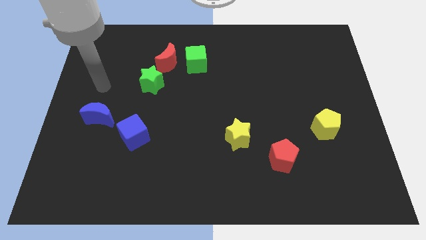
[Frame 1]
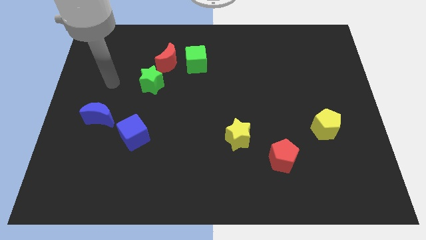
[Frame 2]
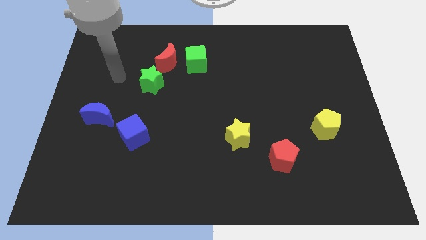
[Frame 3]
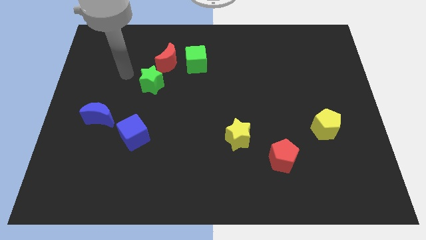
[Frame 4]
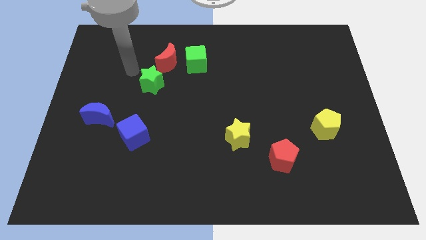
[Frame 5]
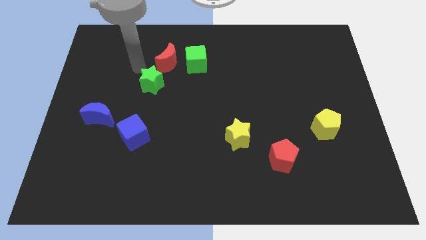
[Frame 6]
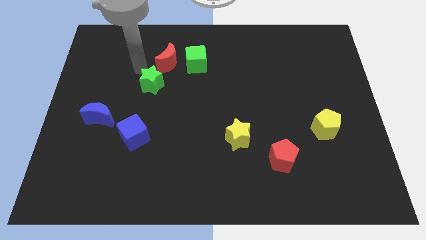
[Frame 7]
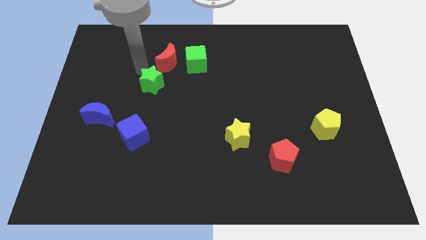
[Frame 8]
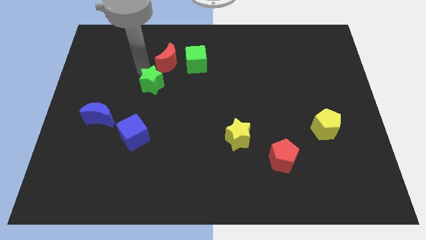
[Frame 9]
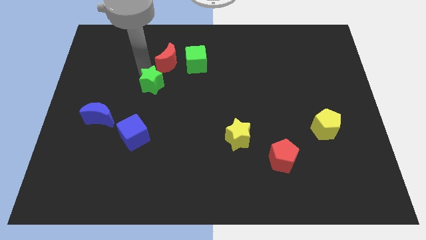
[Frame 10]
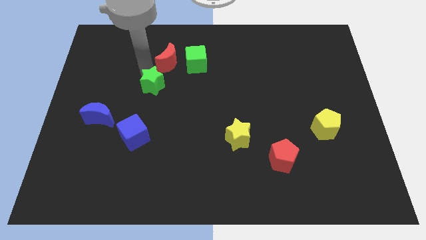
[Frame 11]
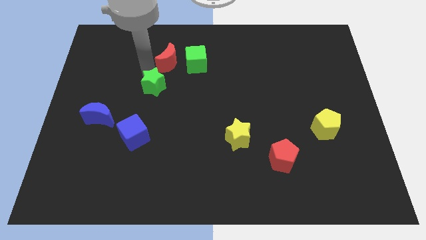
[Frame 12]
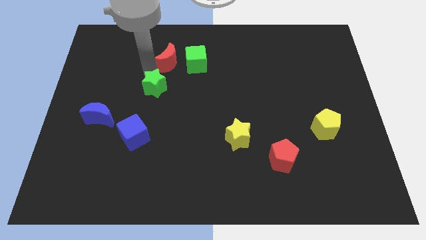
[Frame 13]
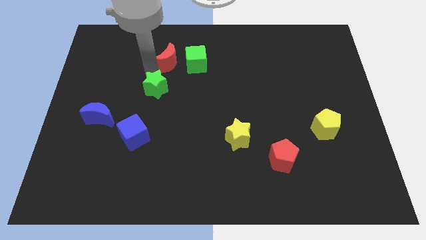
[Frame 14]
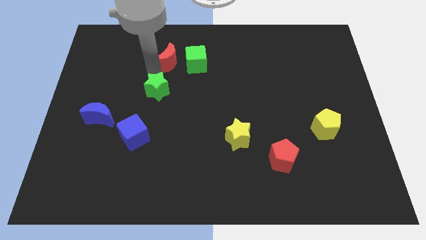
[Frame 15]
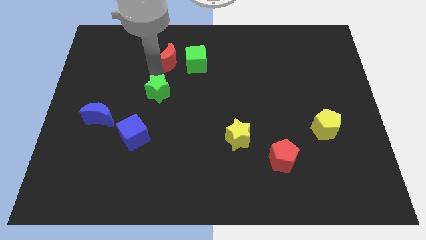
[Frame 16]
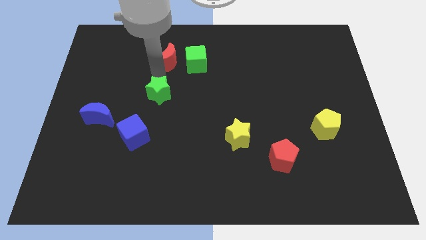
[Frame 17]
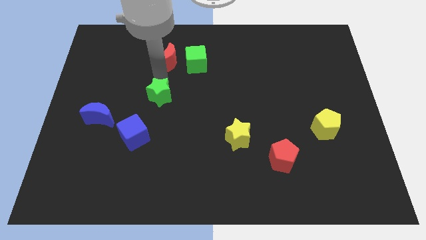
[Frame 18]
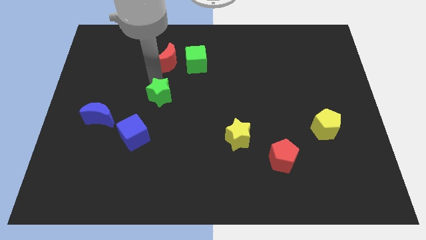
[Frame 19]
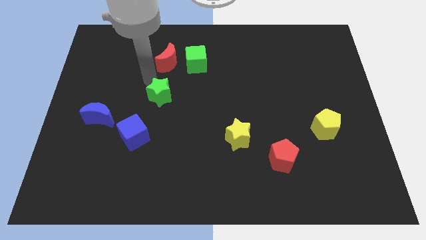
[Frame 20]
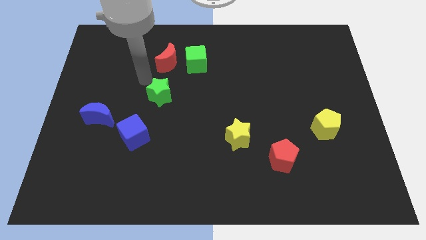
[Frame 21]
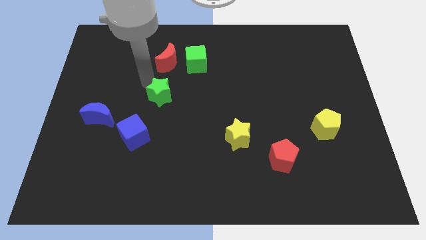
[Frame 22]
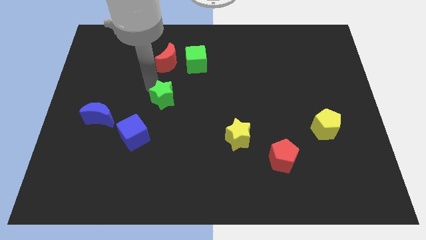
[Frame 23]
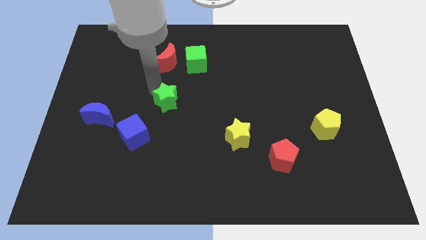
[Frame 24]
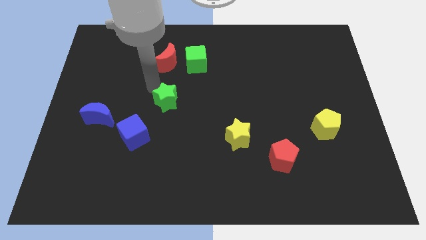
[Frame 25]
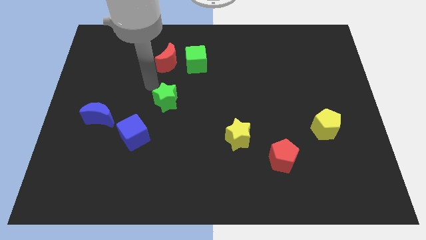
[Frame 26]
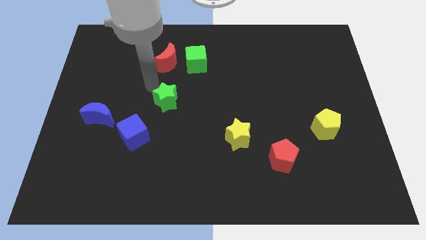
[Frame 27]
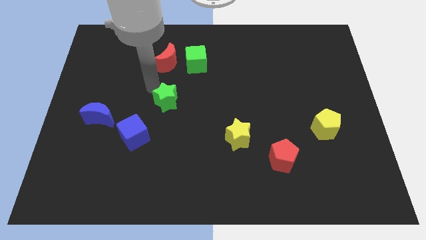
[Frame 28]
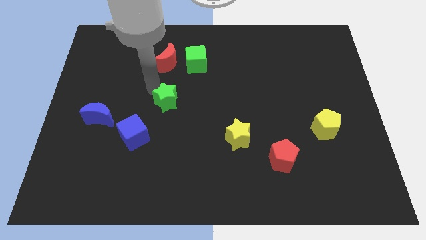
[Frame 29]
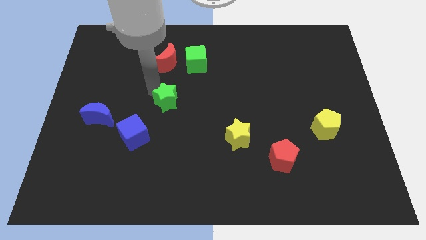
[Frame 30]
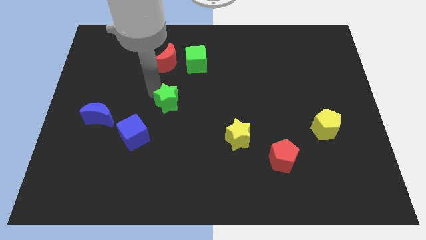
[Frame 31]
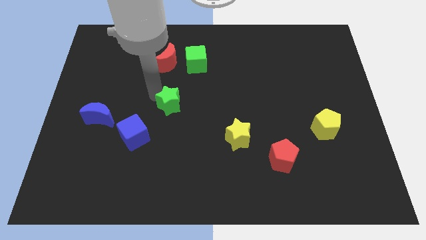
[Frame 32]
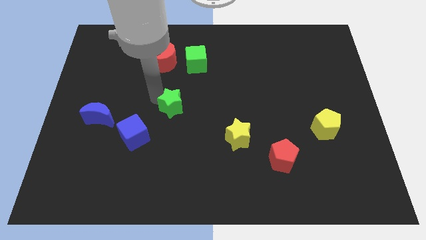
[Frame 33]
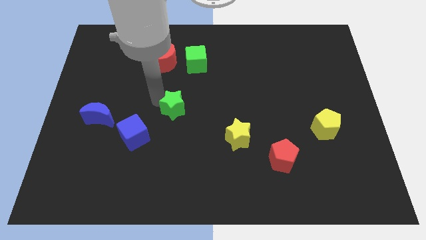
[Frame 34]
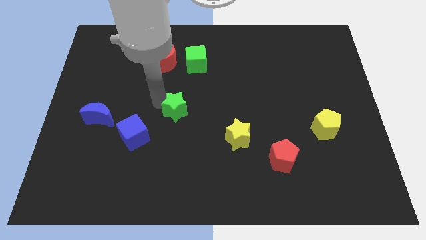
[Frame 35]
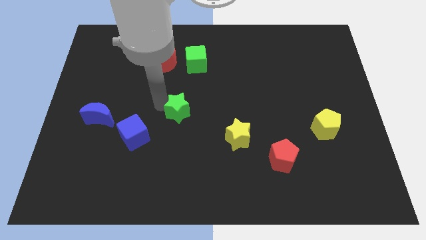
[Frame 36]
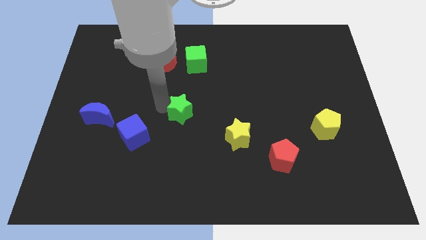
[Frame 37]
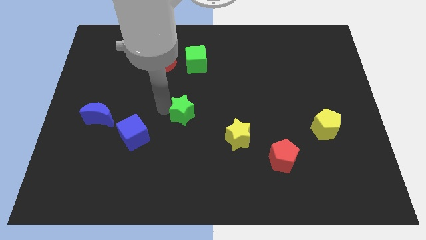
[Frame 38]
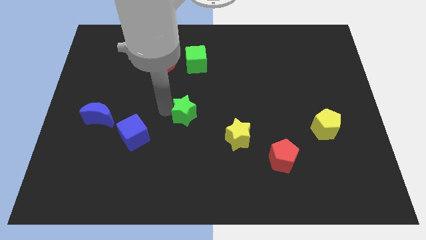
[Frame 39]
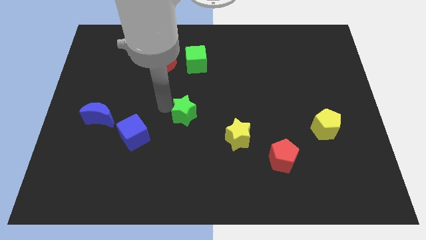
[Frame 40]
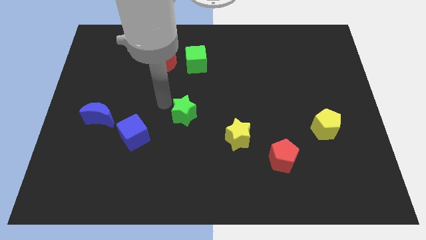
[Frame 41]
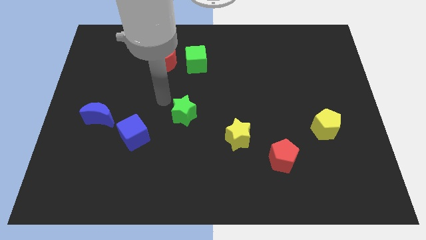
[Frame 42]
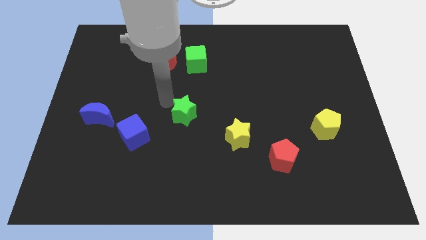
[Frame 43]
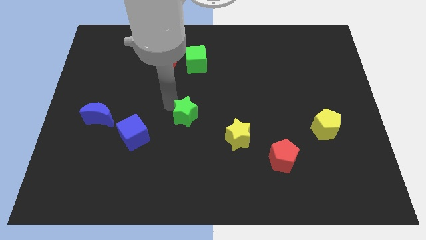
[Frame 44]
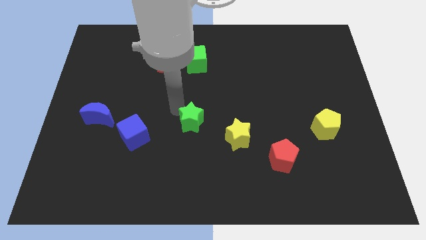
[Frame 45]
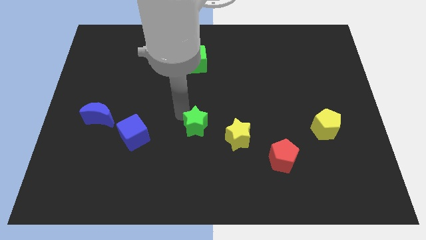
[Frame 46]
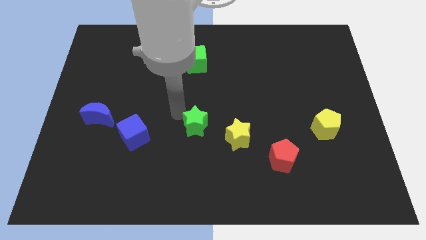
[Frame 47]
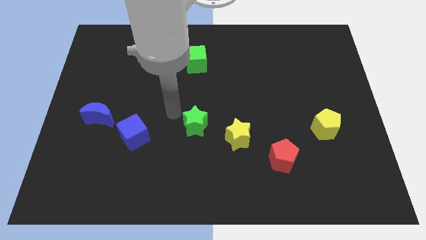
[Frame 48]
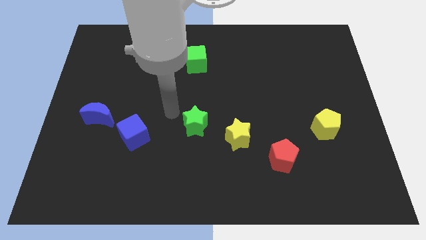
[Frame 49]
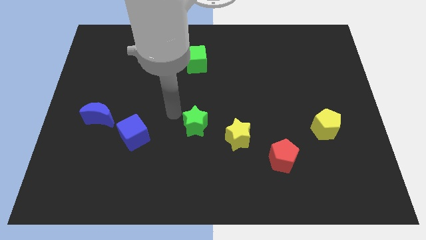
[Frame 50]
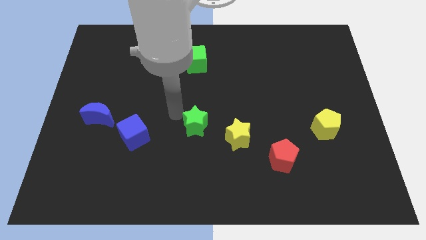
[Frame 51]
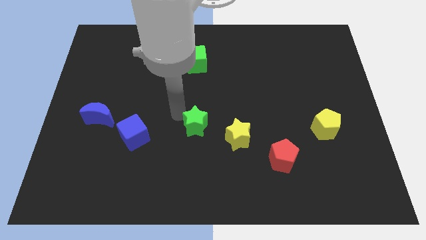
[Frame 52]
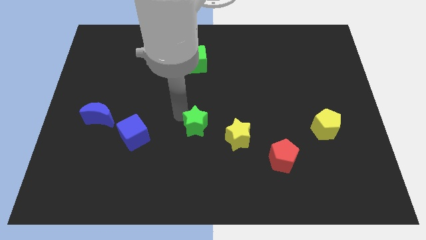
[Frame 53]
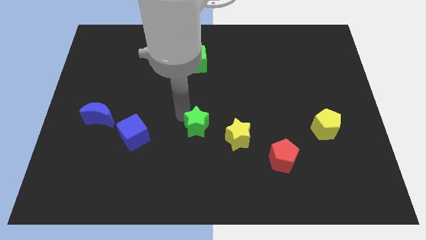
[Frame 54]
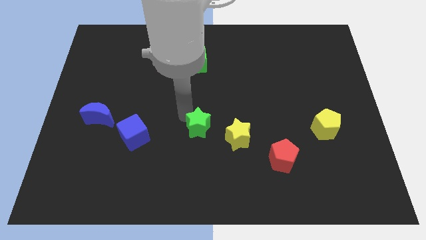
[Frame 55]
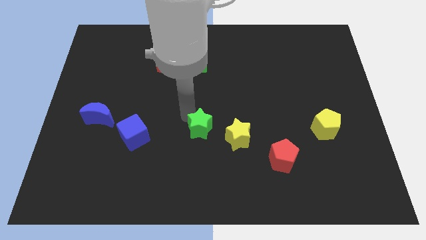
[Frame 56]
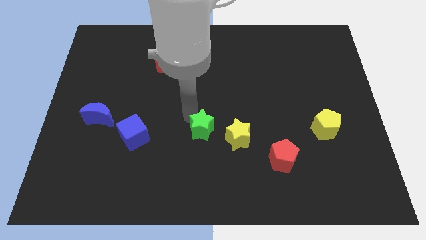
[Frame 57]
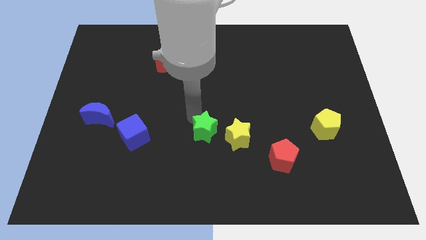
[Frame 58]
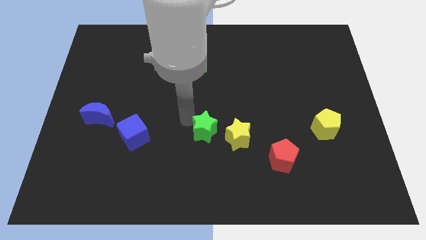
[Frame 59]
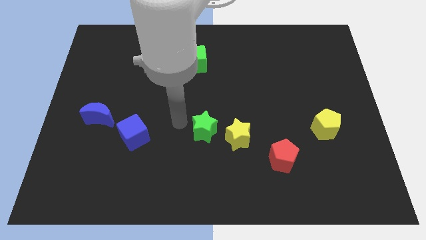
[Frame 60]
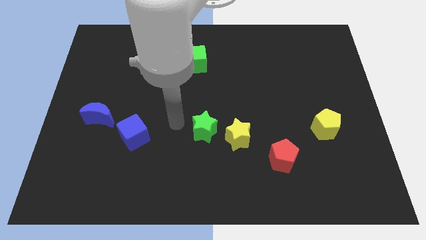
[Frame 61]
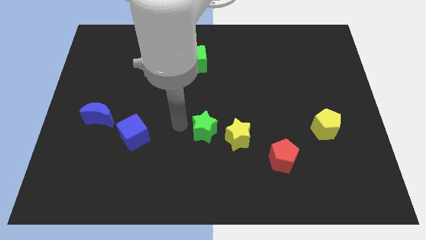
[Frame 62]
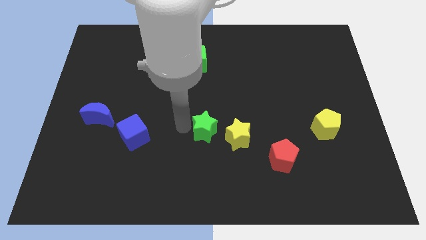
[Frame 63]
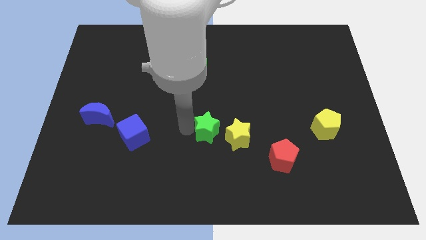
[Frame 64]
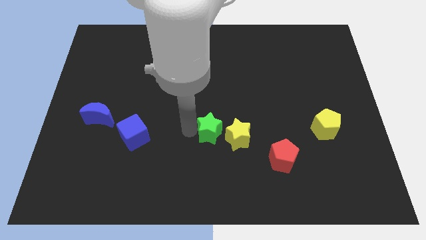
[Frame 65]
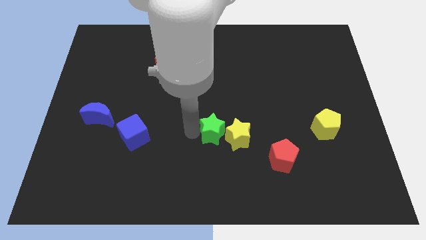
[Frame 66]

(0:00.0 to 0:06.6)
put the green star close to the yellow star
